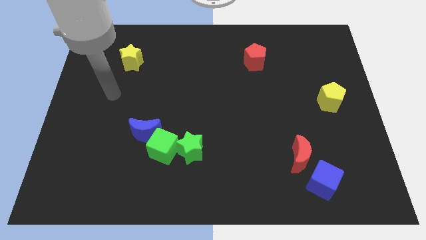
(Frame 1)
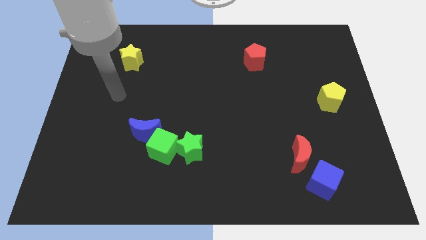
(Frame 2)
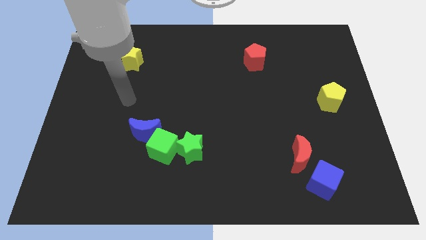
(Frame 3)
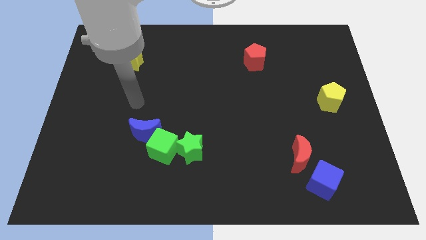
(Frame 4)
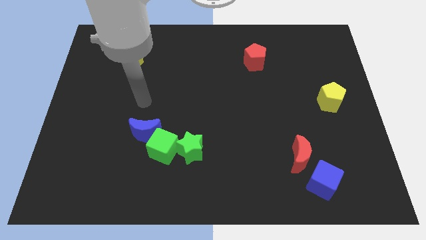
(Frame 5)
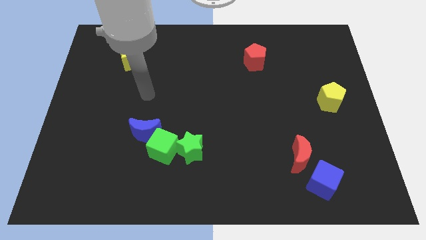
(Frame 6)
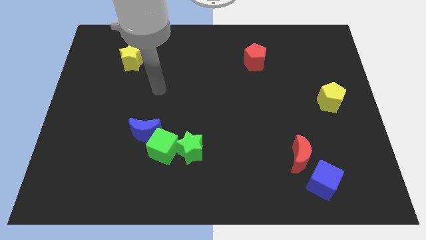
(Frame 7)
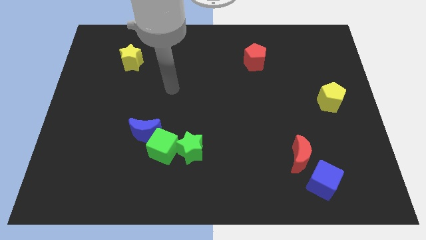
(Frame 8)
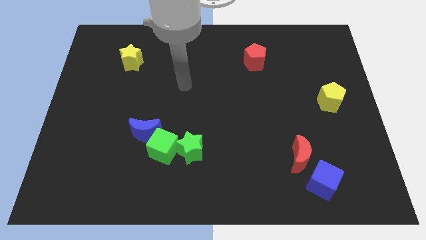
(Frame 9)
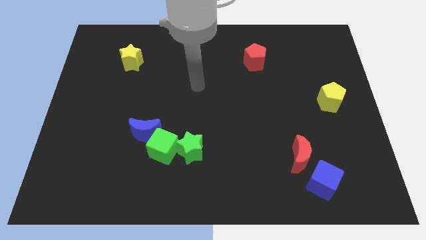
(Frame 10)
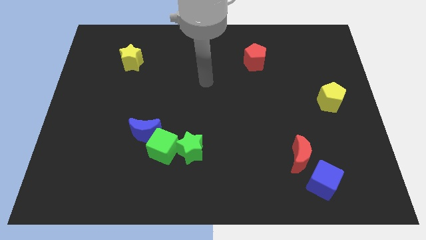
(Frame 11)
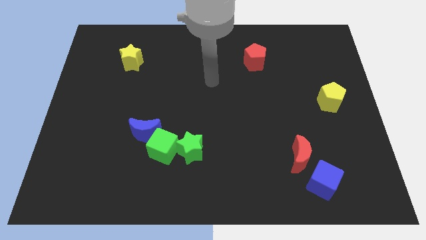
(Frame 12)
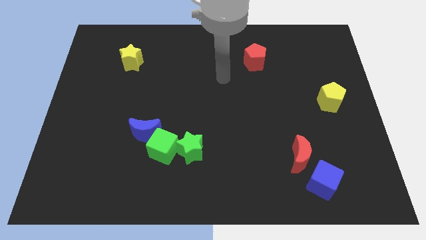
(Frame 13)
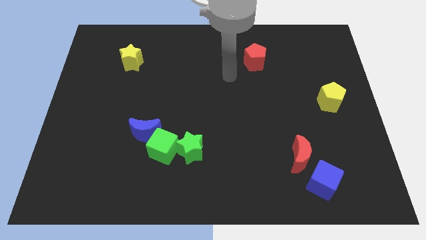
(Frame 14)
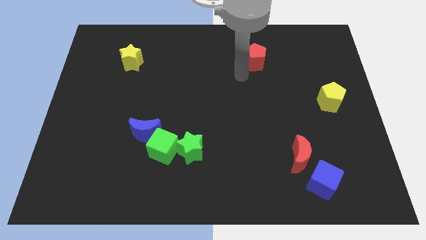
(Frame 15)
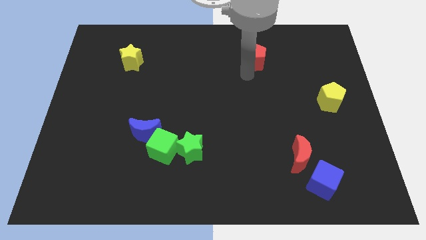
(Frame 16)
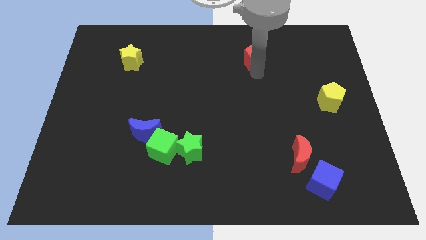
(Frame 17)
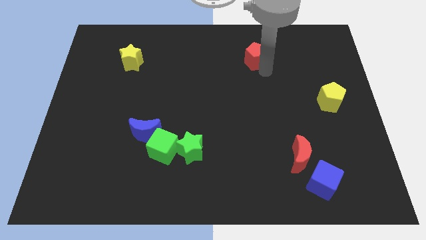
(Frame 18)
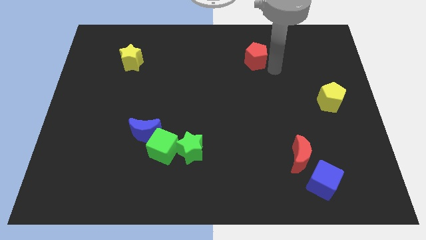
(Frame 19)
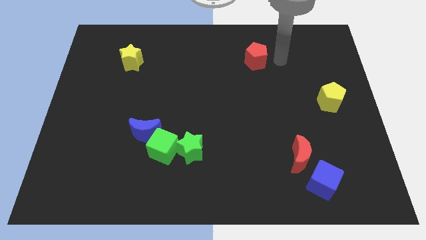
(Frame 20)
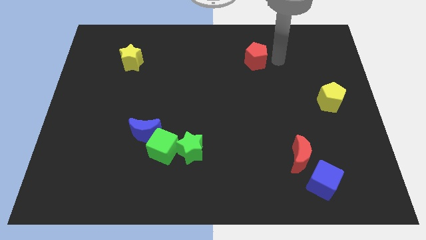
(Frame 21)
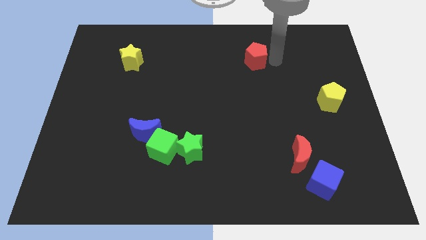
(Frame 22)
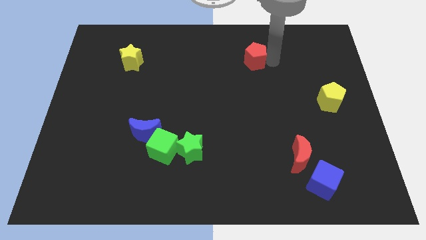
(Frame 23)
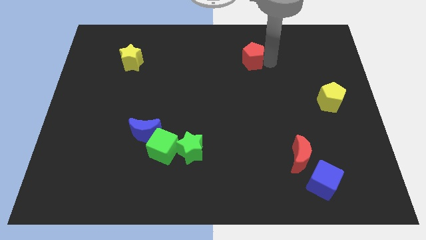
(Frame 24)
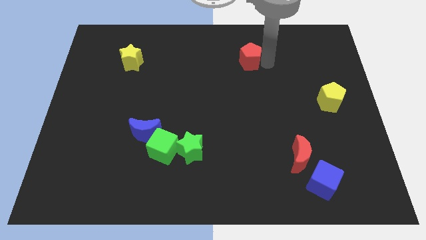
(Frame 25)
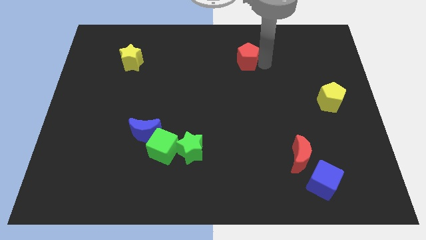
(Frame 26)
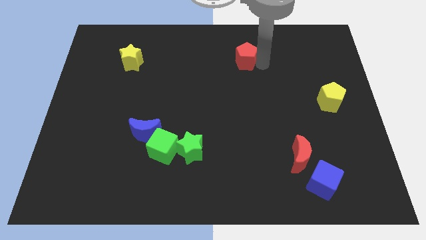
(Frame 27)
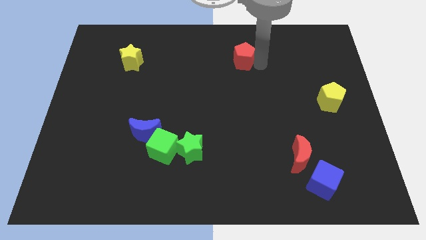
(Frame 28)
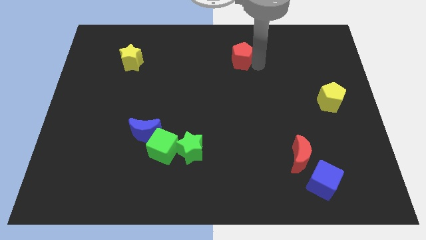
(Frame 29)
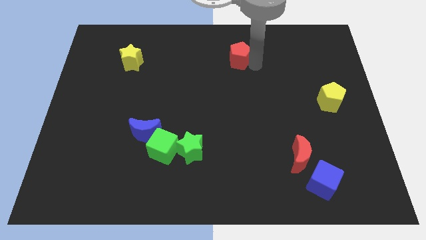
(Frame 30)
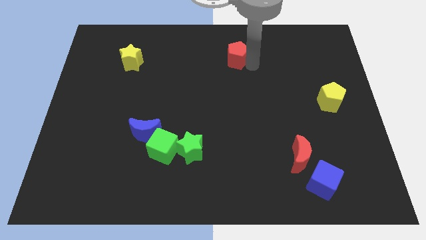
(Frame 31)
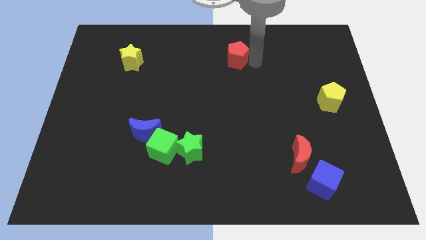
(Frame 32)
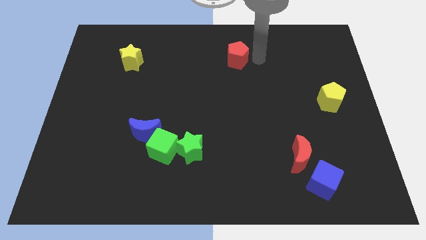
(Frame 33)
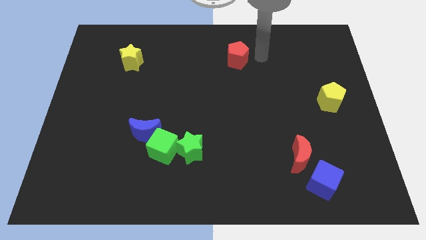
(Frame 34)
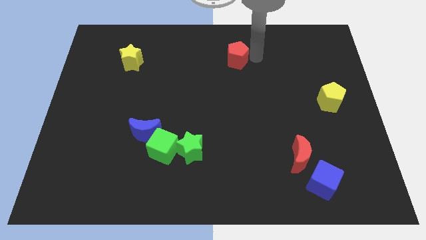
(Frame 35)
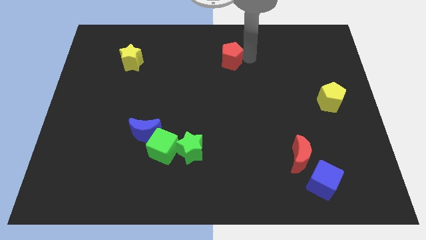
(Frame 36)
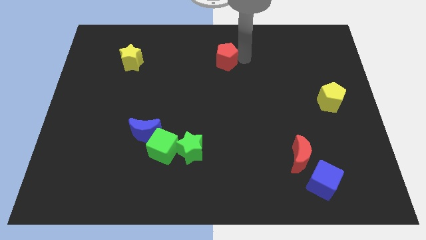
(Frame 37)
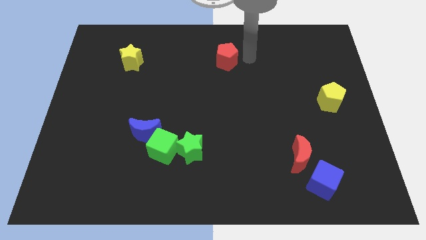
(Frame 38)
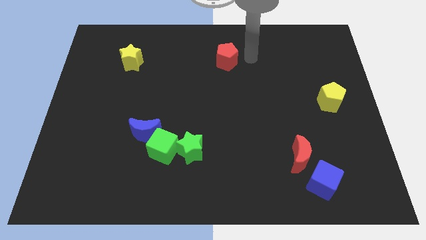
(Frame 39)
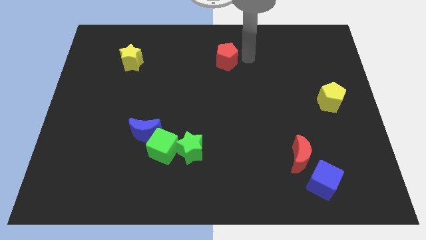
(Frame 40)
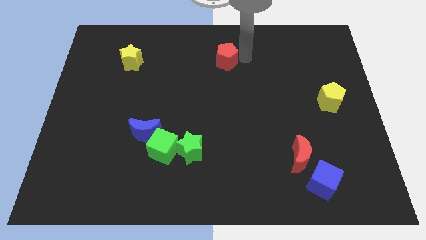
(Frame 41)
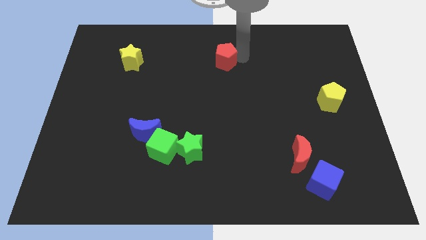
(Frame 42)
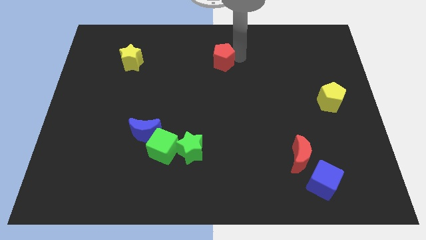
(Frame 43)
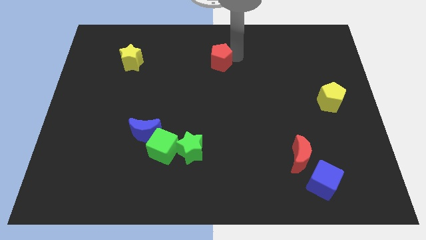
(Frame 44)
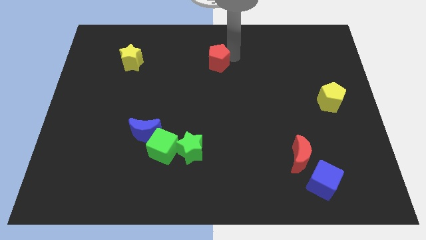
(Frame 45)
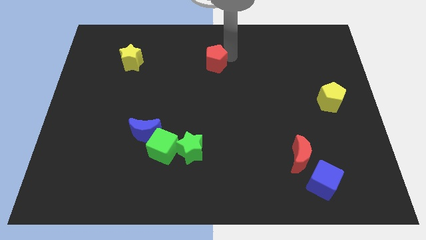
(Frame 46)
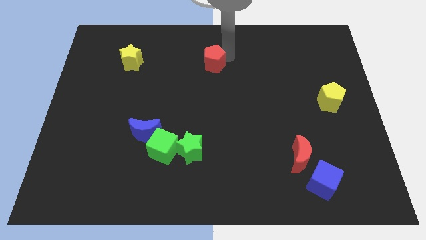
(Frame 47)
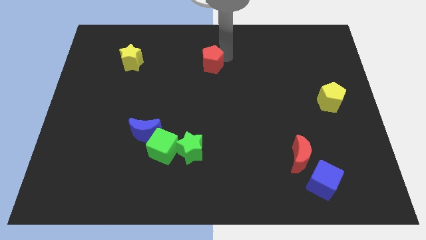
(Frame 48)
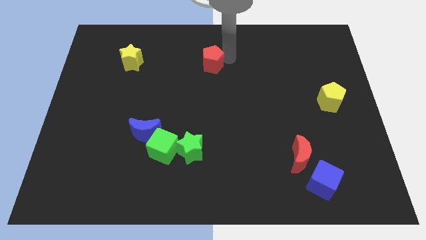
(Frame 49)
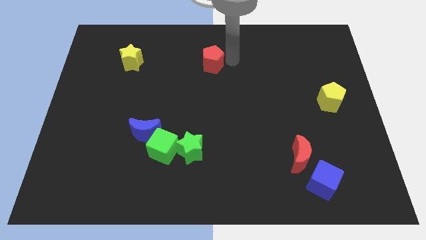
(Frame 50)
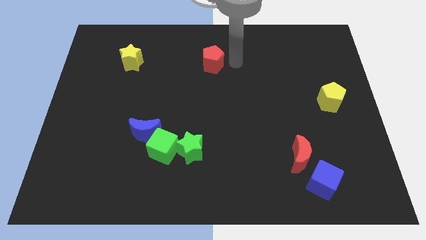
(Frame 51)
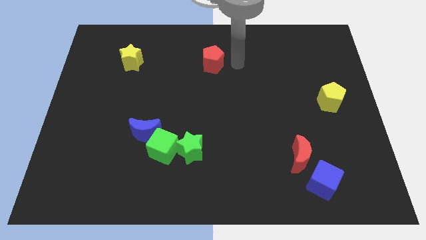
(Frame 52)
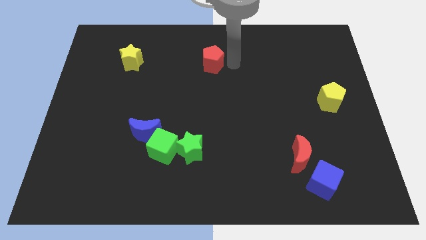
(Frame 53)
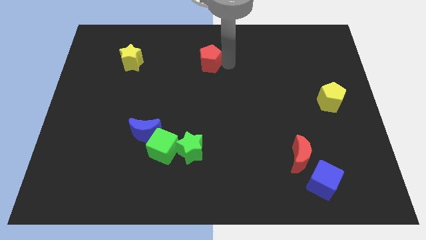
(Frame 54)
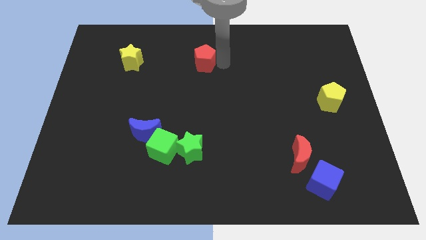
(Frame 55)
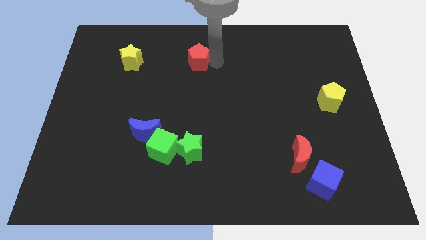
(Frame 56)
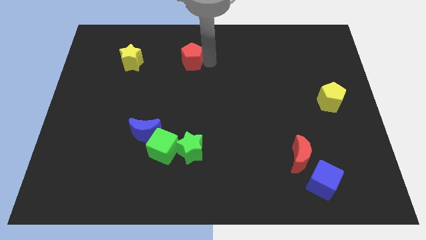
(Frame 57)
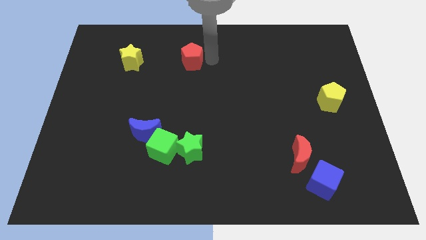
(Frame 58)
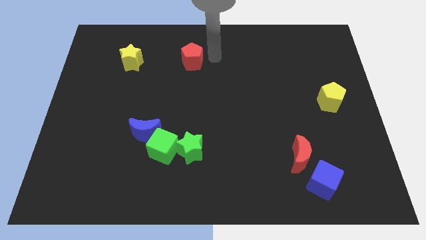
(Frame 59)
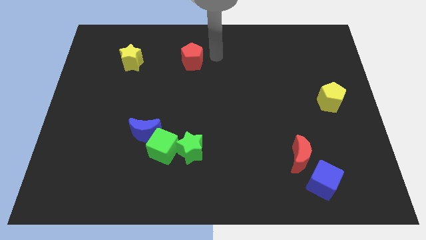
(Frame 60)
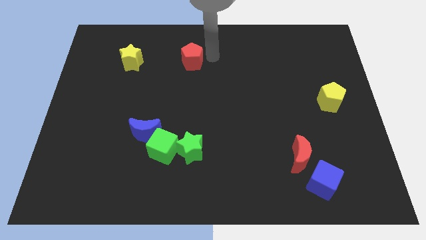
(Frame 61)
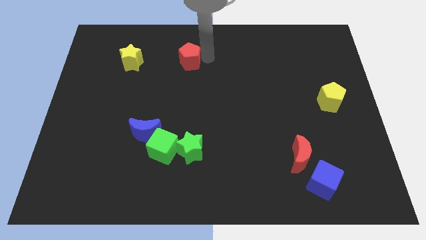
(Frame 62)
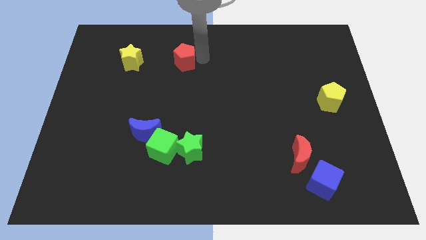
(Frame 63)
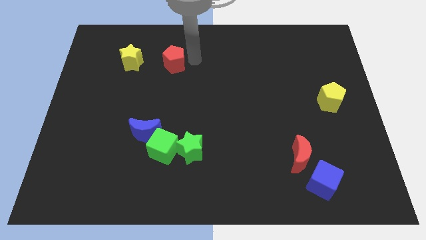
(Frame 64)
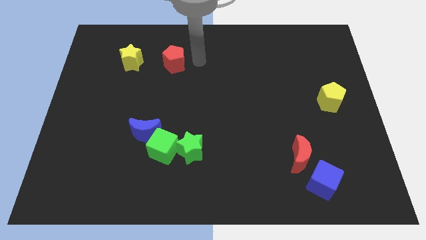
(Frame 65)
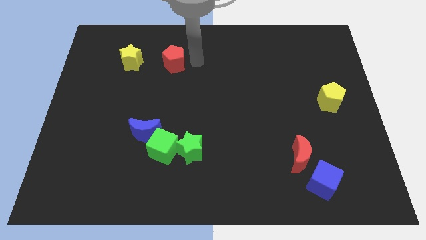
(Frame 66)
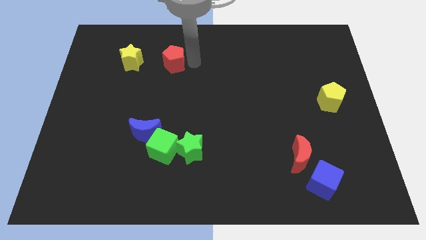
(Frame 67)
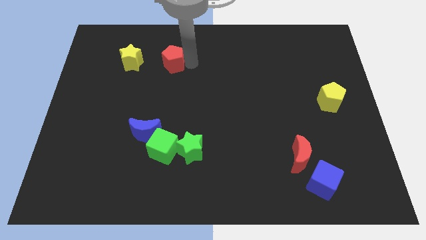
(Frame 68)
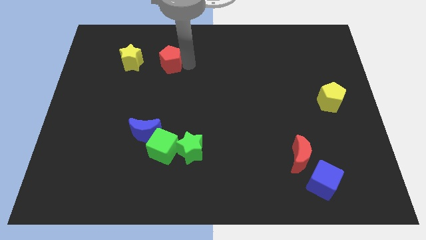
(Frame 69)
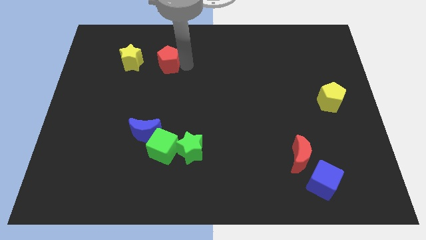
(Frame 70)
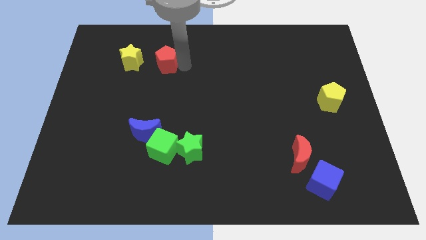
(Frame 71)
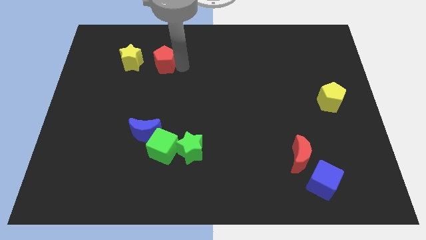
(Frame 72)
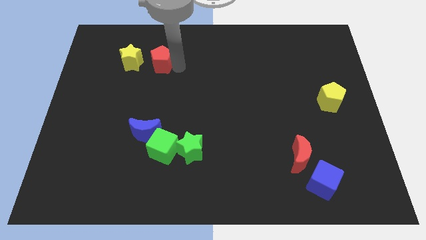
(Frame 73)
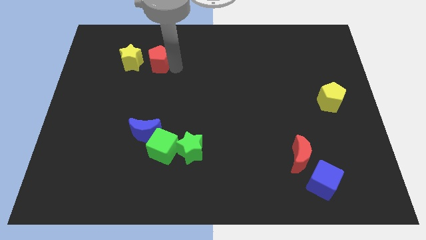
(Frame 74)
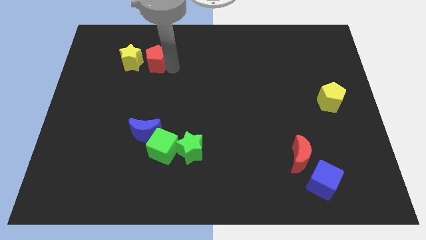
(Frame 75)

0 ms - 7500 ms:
slide the red pentagon to the yellow star
